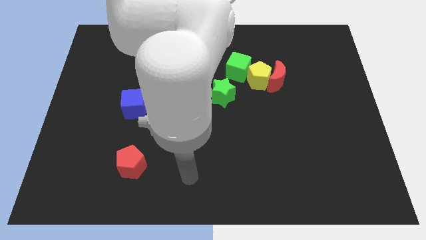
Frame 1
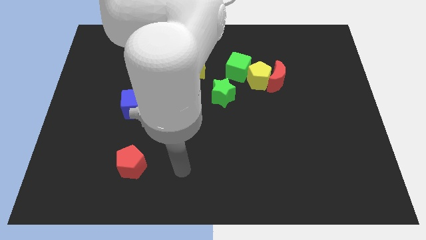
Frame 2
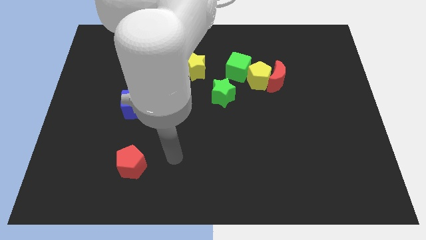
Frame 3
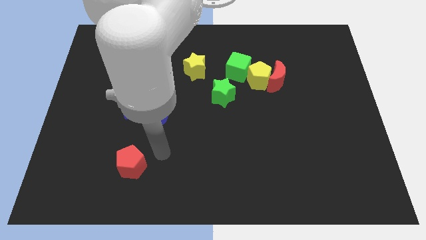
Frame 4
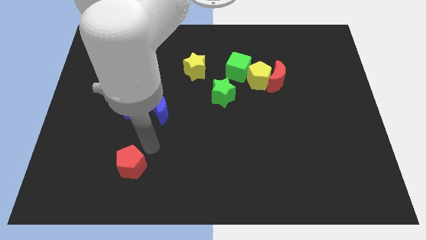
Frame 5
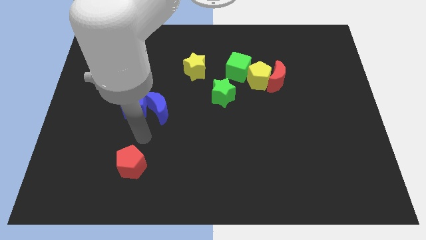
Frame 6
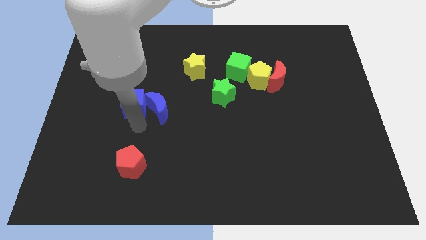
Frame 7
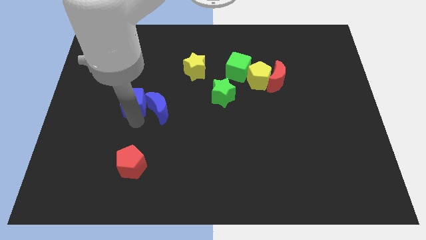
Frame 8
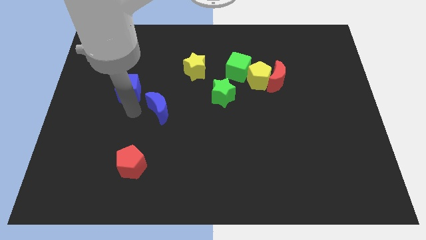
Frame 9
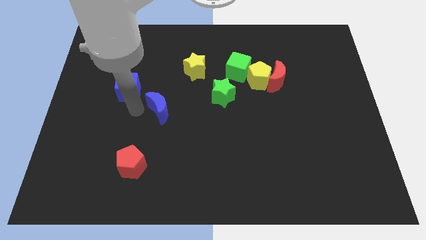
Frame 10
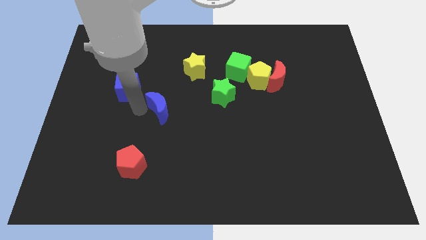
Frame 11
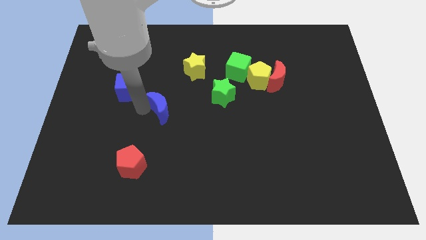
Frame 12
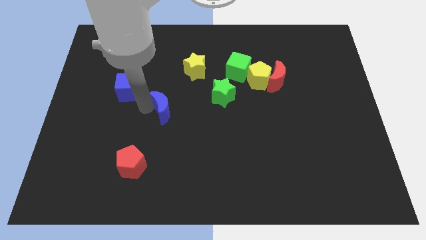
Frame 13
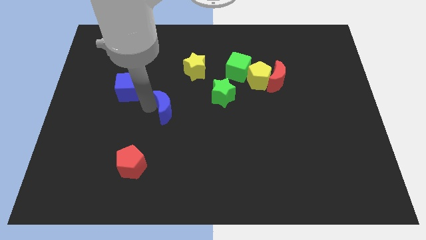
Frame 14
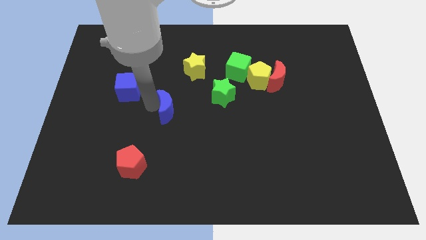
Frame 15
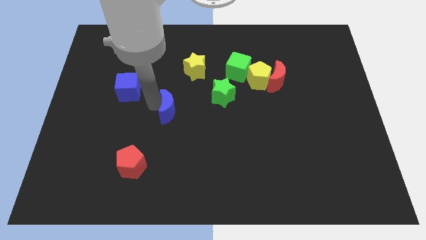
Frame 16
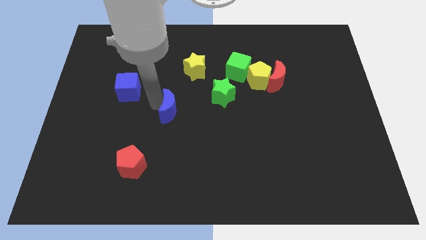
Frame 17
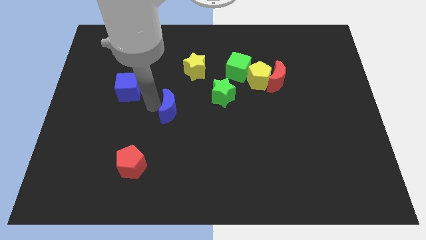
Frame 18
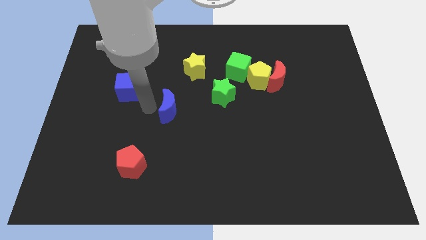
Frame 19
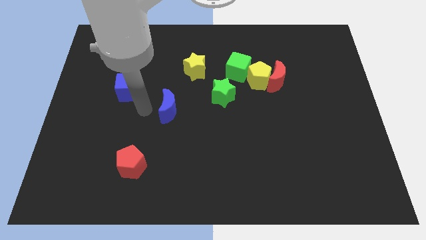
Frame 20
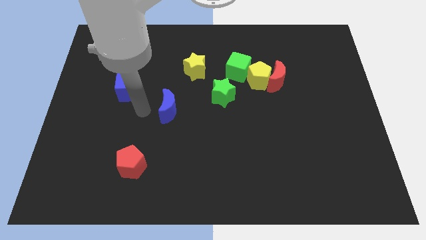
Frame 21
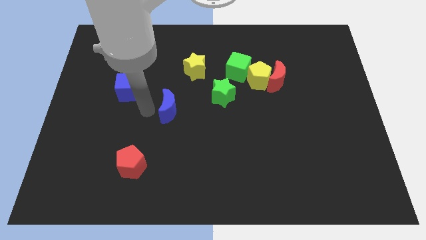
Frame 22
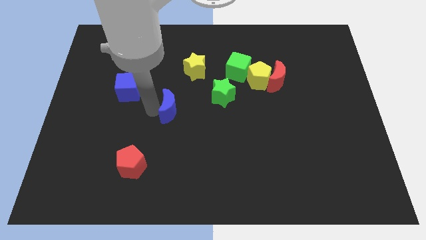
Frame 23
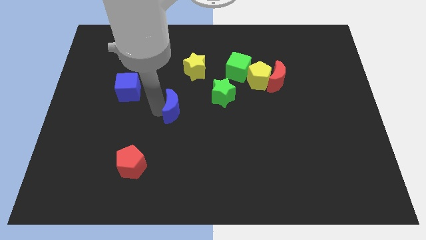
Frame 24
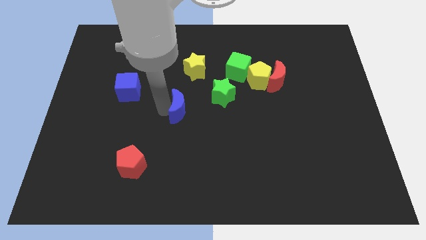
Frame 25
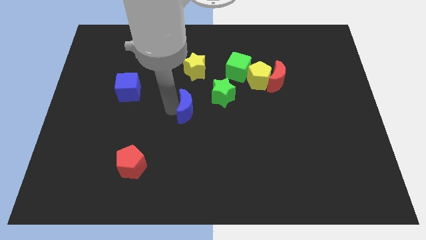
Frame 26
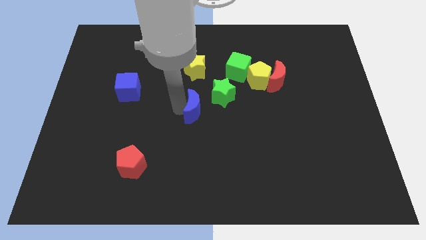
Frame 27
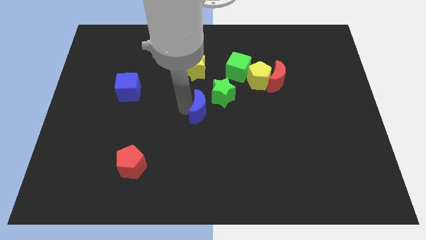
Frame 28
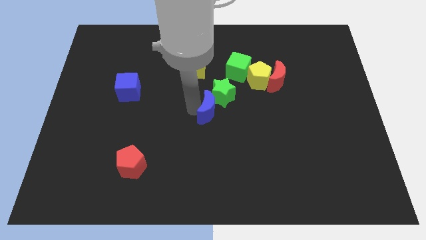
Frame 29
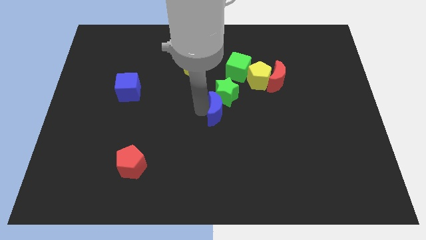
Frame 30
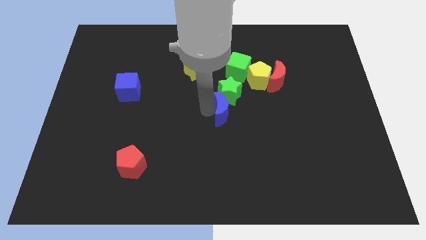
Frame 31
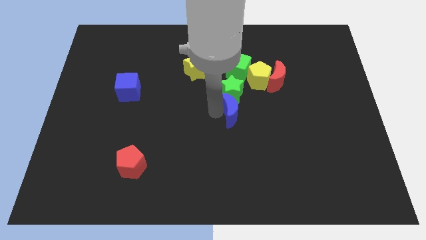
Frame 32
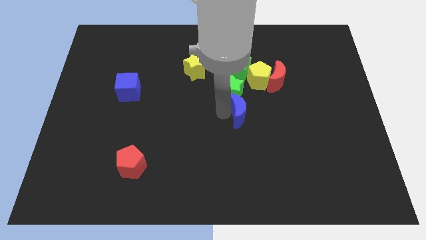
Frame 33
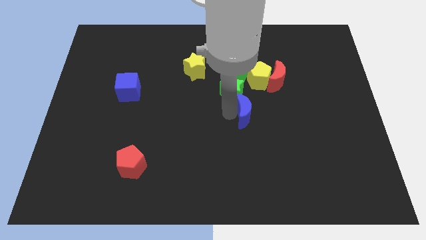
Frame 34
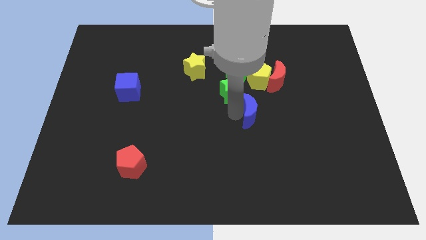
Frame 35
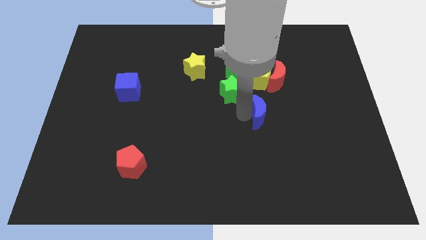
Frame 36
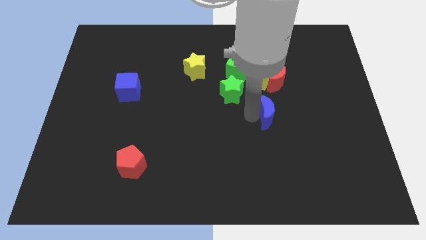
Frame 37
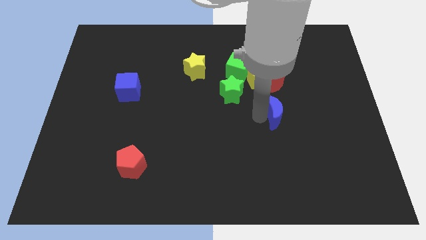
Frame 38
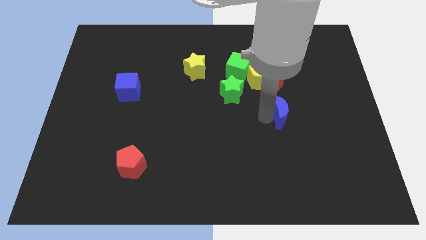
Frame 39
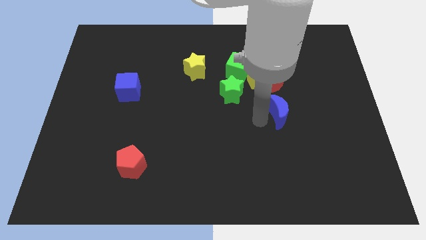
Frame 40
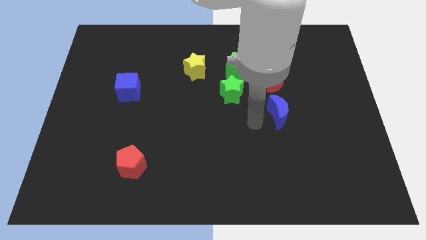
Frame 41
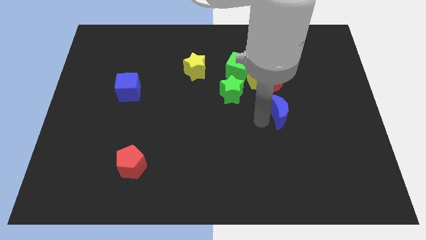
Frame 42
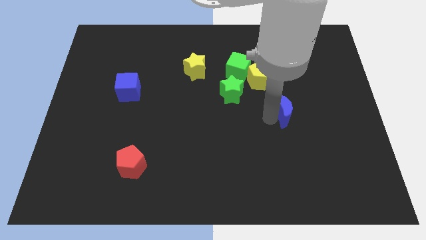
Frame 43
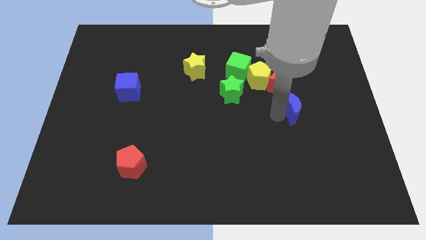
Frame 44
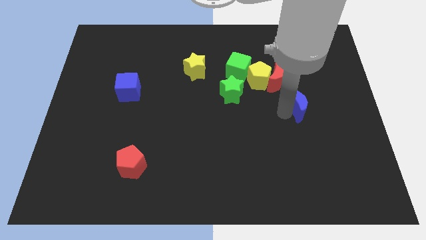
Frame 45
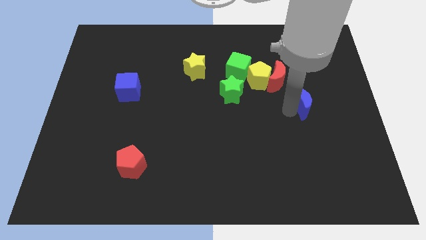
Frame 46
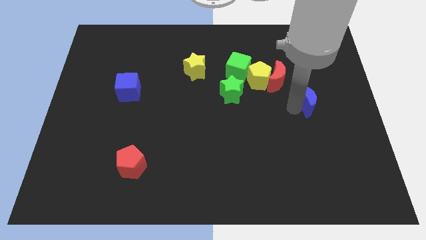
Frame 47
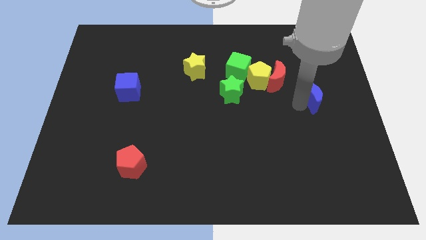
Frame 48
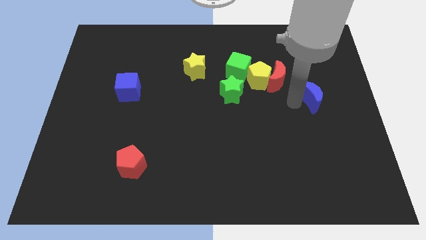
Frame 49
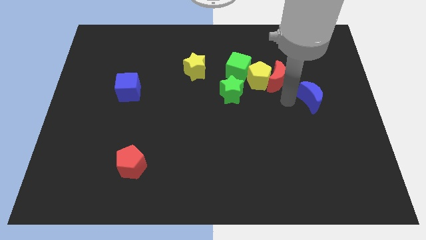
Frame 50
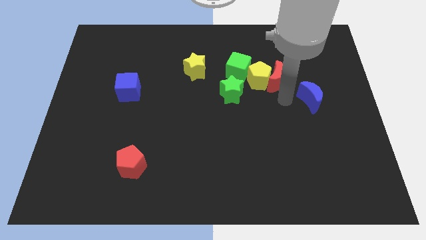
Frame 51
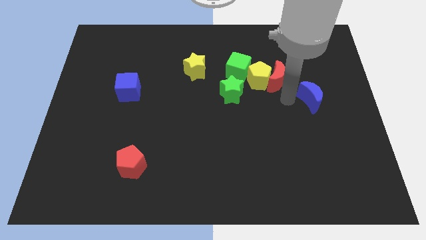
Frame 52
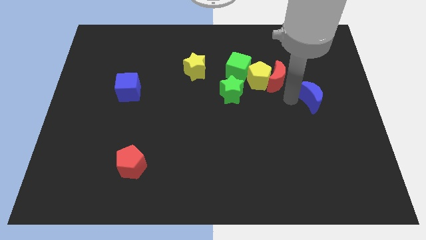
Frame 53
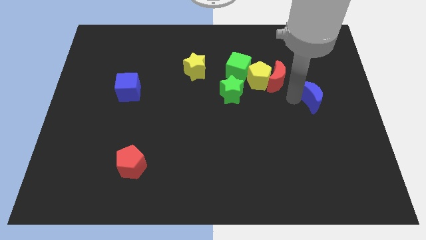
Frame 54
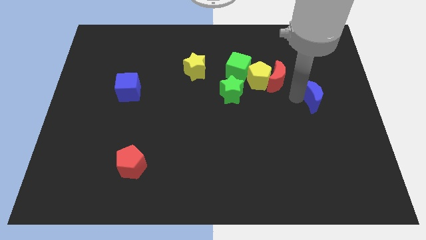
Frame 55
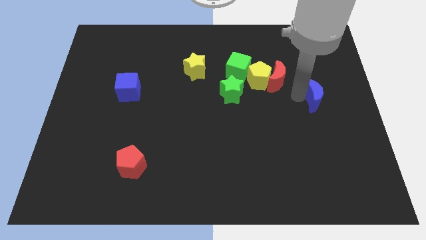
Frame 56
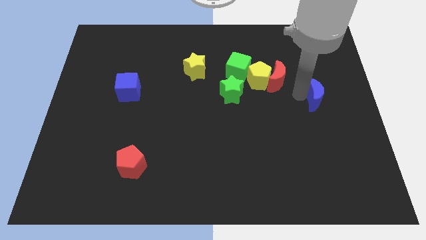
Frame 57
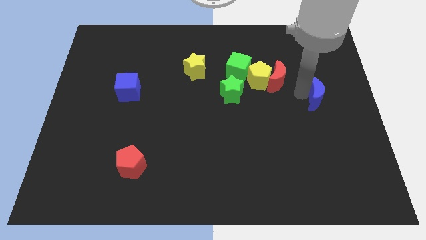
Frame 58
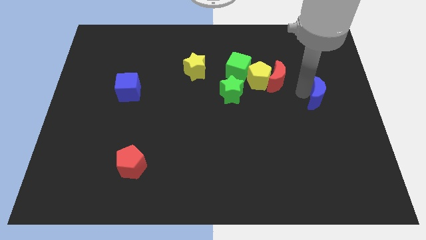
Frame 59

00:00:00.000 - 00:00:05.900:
move the blue moon to the center right

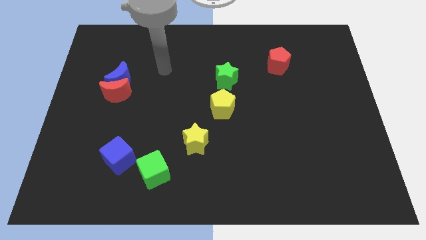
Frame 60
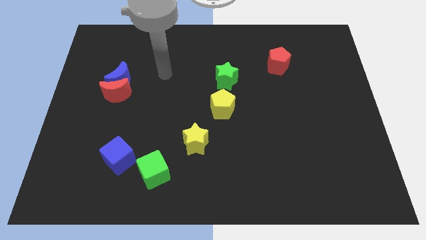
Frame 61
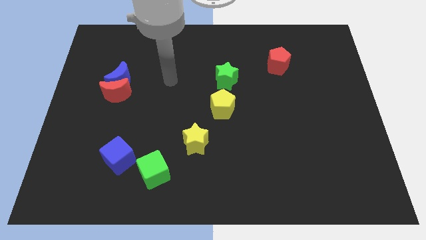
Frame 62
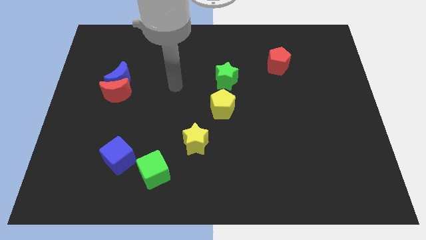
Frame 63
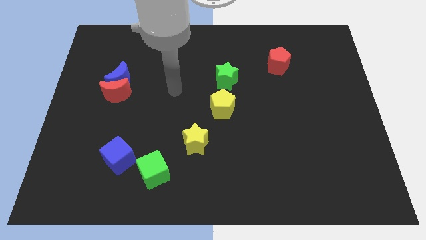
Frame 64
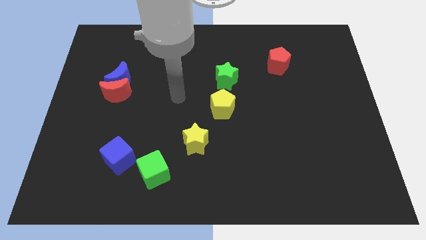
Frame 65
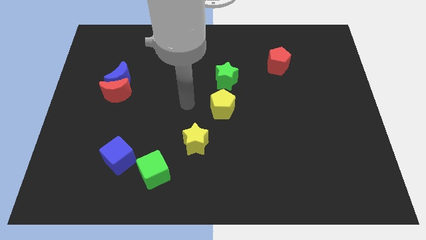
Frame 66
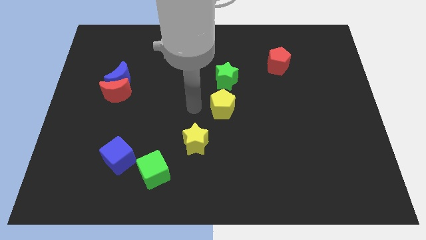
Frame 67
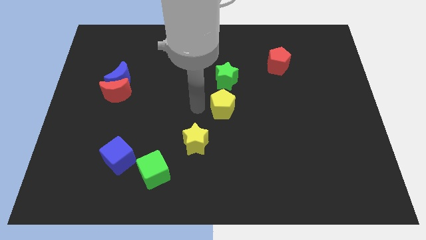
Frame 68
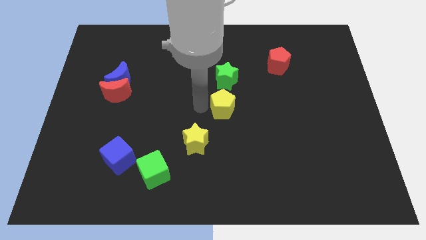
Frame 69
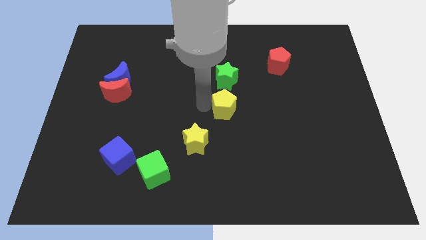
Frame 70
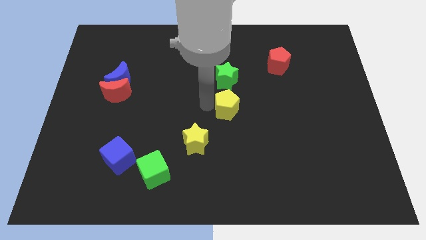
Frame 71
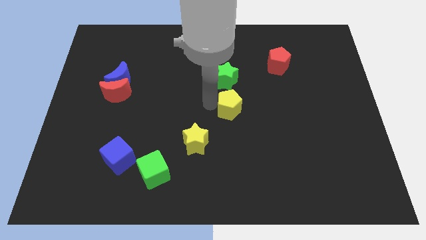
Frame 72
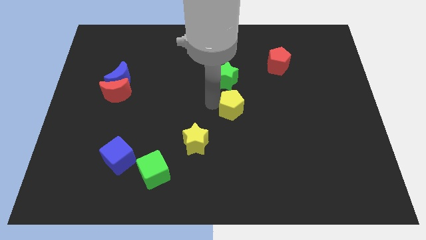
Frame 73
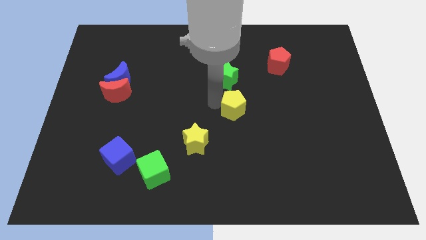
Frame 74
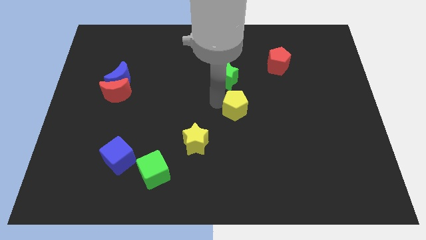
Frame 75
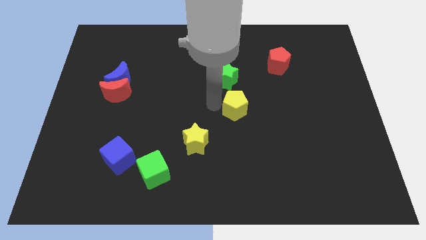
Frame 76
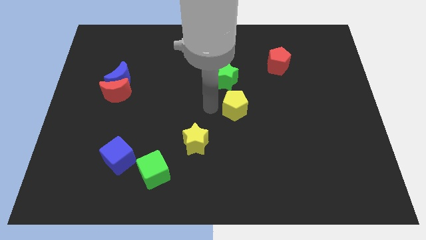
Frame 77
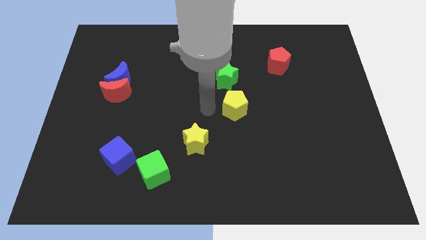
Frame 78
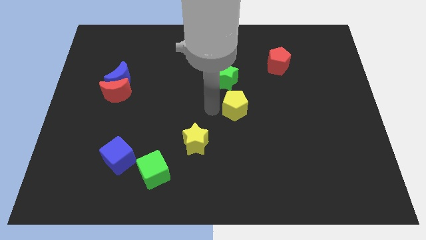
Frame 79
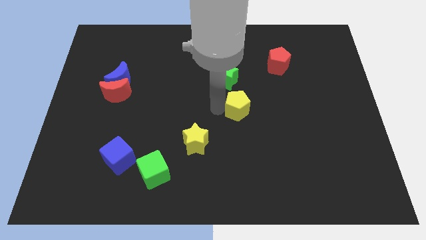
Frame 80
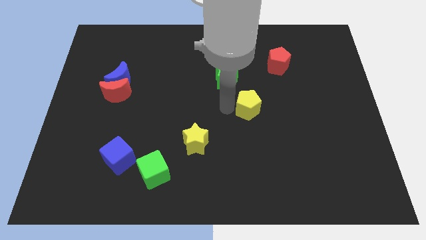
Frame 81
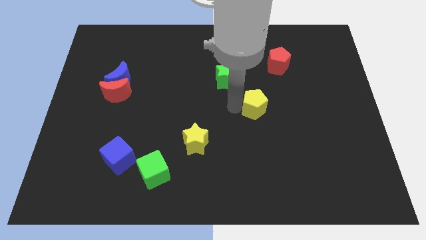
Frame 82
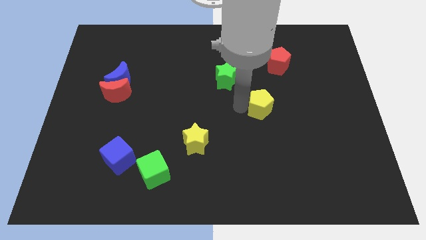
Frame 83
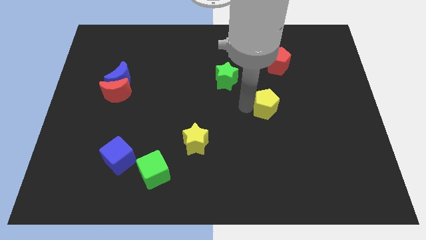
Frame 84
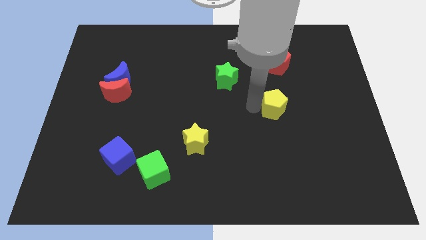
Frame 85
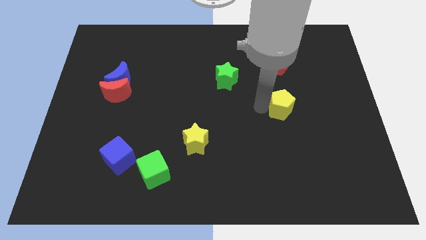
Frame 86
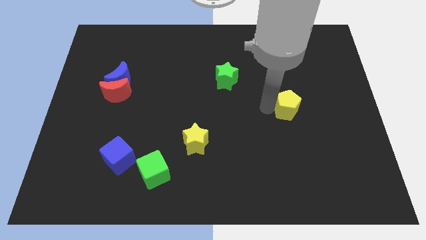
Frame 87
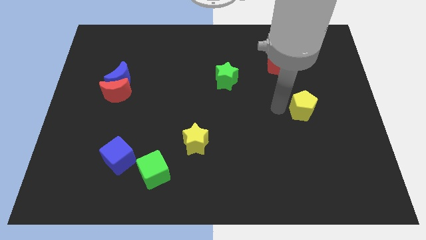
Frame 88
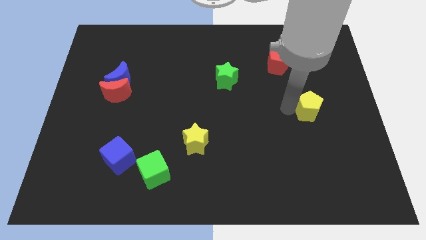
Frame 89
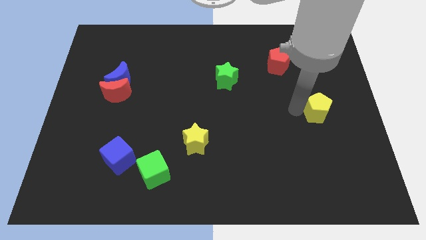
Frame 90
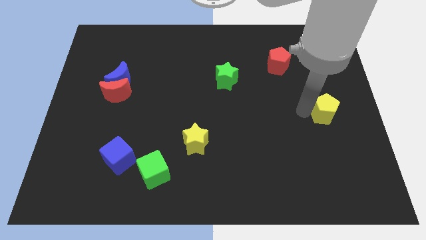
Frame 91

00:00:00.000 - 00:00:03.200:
slide the yellow pentagon to the center right
